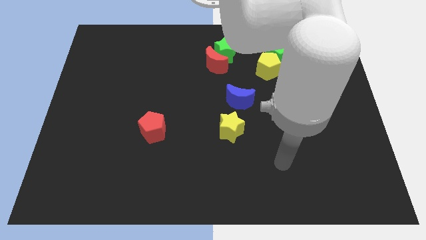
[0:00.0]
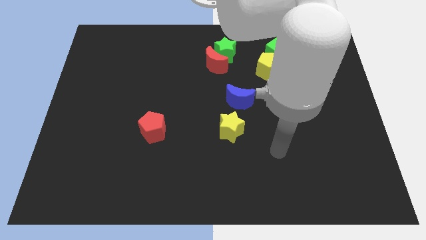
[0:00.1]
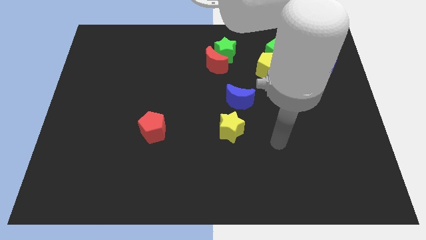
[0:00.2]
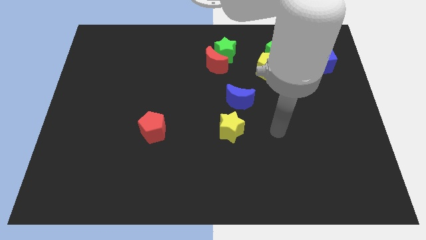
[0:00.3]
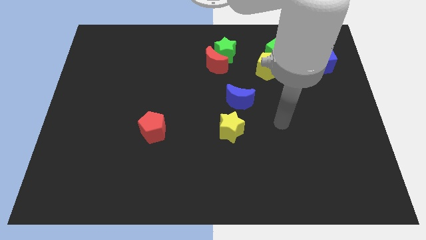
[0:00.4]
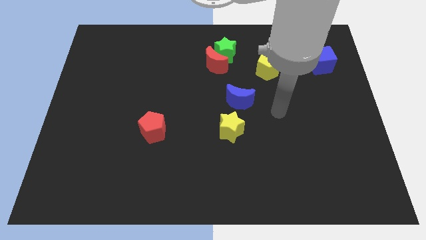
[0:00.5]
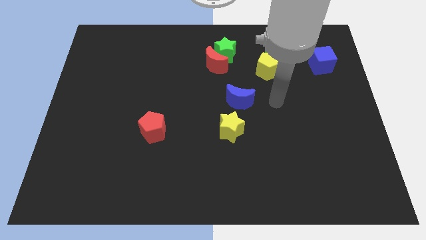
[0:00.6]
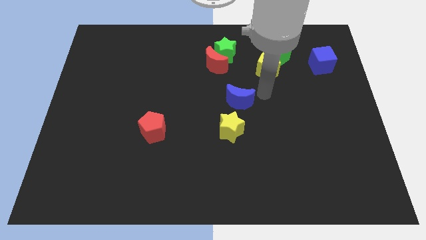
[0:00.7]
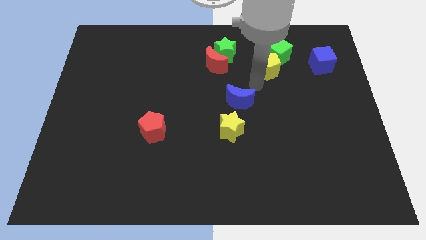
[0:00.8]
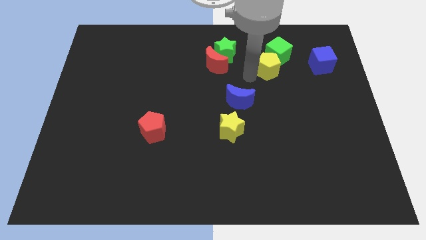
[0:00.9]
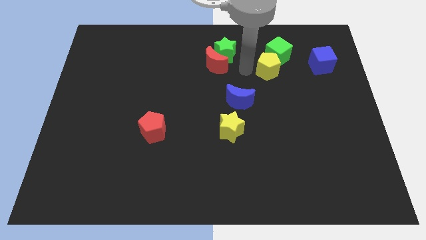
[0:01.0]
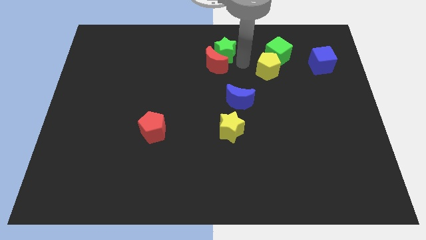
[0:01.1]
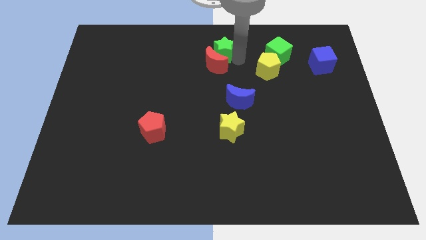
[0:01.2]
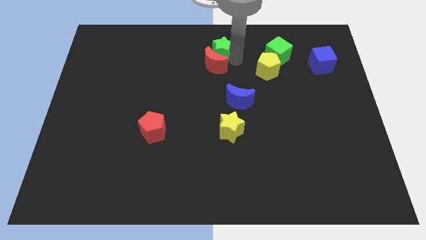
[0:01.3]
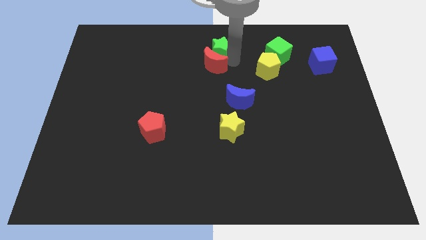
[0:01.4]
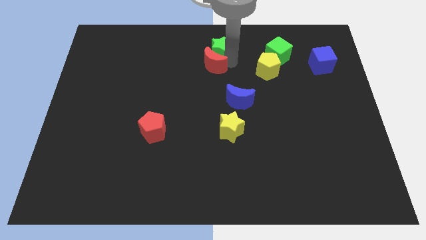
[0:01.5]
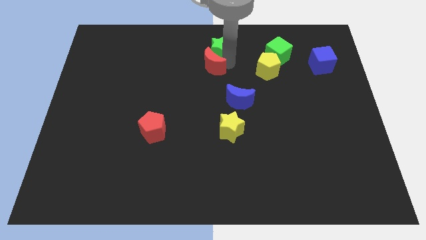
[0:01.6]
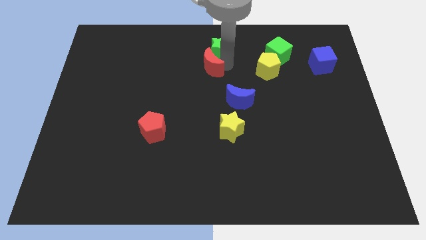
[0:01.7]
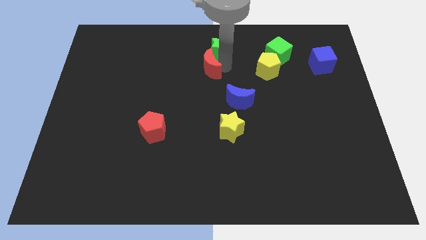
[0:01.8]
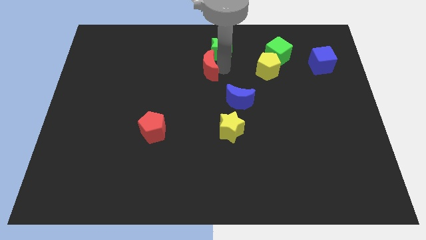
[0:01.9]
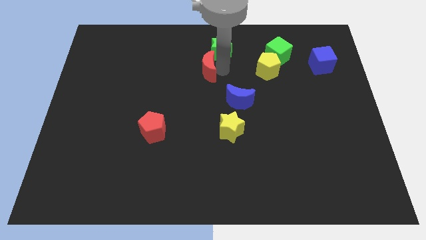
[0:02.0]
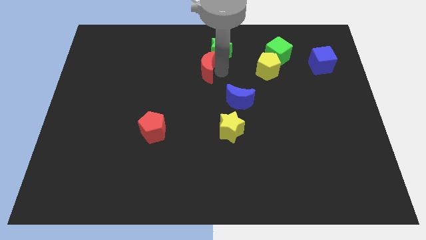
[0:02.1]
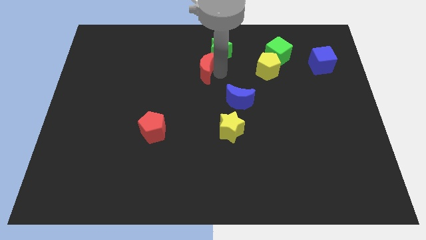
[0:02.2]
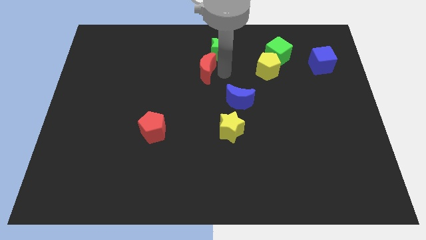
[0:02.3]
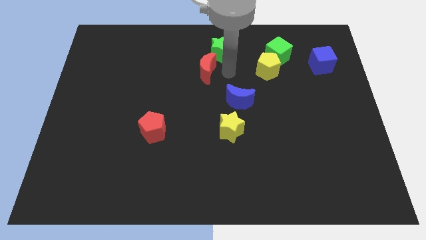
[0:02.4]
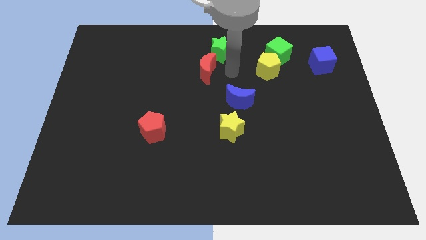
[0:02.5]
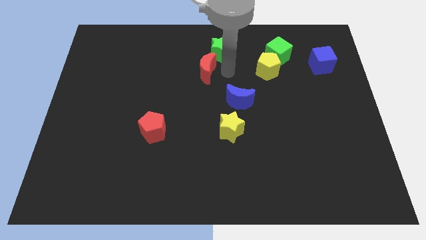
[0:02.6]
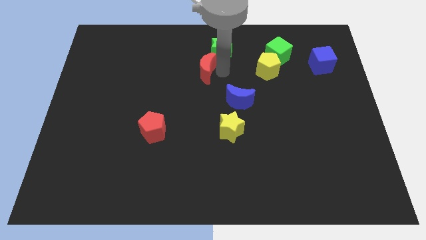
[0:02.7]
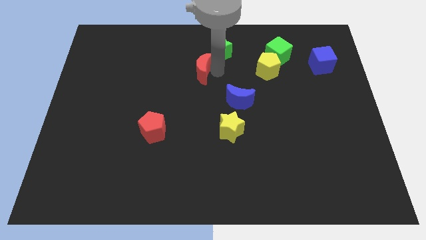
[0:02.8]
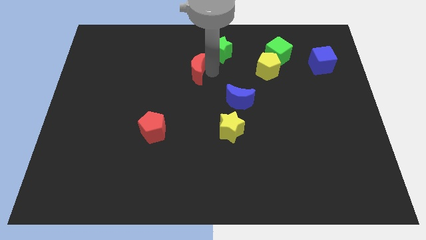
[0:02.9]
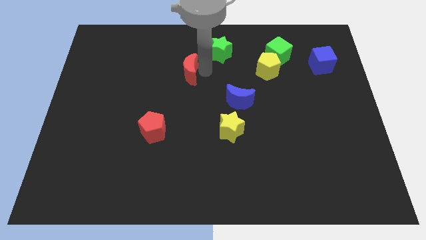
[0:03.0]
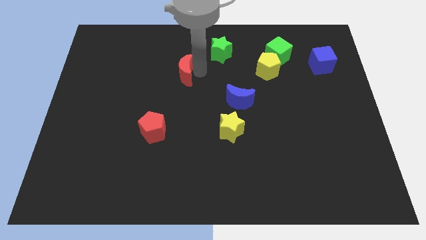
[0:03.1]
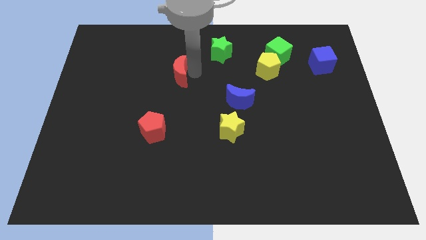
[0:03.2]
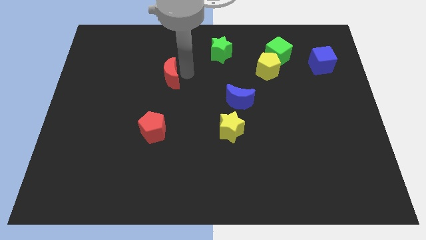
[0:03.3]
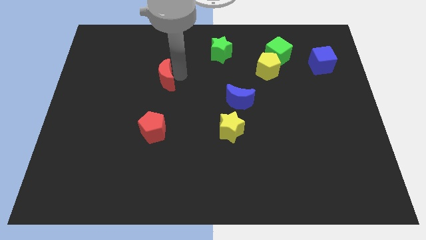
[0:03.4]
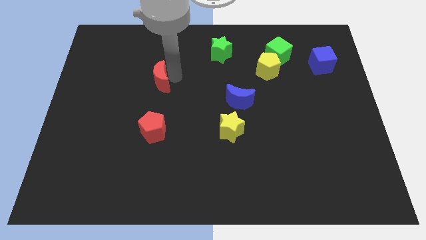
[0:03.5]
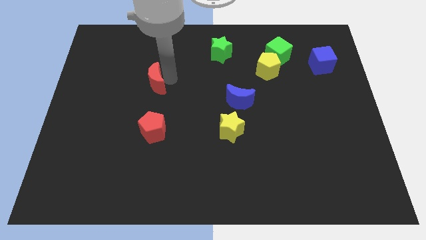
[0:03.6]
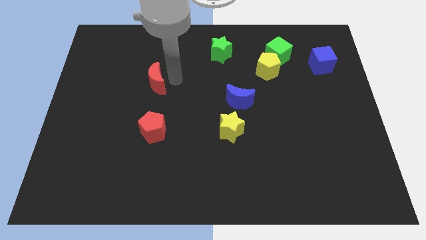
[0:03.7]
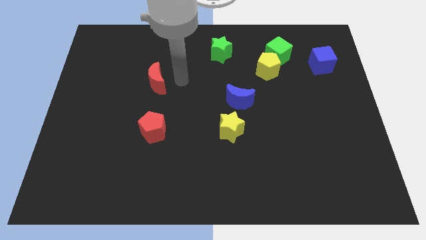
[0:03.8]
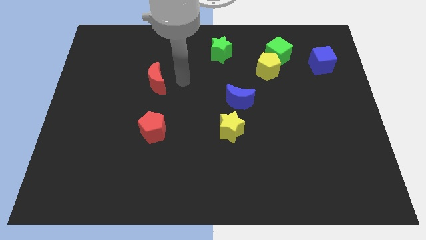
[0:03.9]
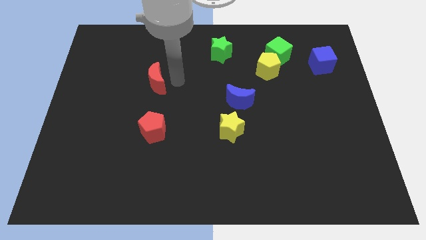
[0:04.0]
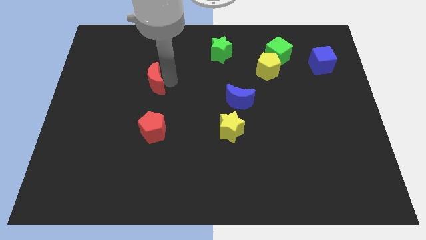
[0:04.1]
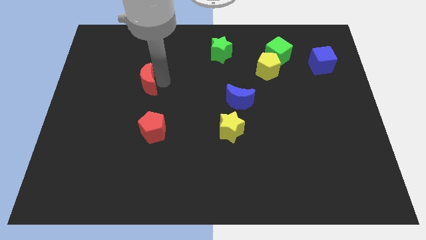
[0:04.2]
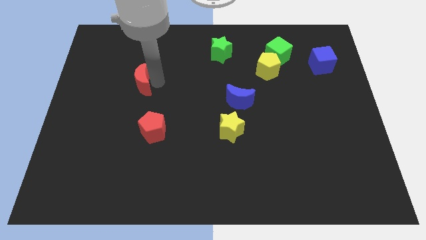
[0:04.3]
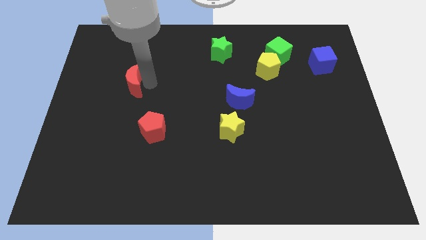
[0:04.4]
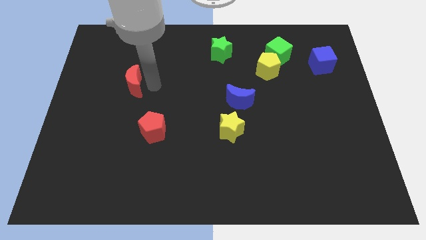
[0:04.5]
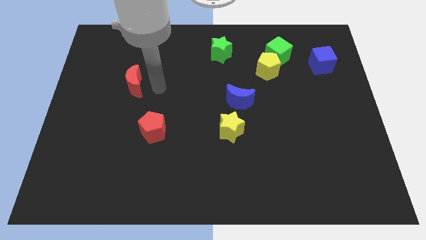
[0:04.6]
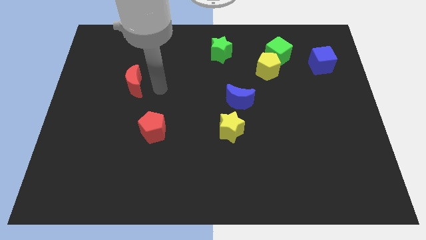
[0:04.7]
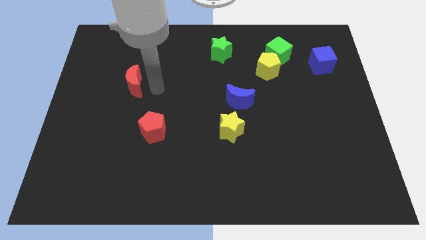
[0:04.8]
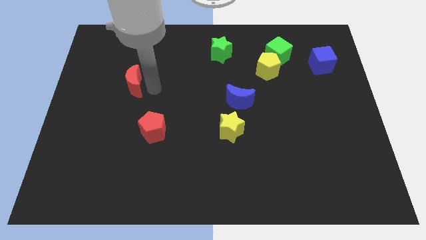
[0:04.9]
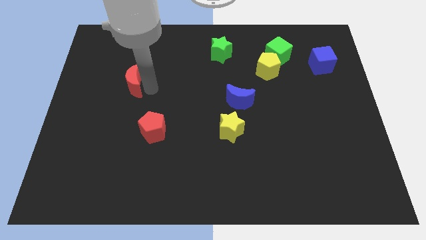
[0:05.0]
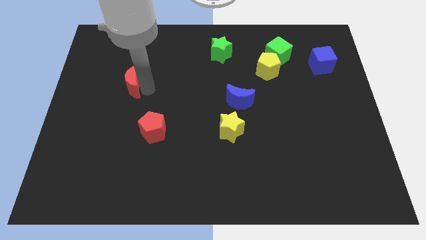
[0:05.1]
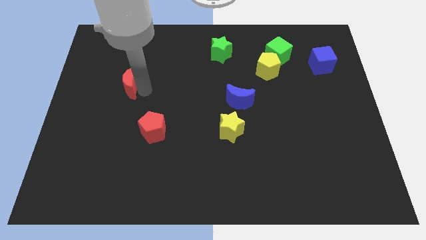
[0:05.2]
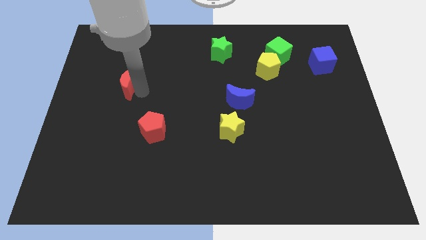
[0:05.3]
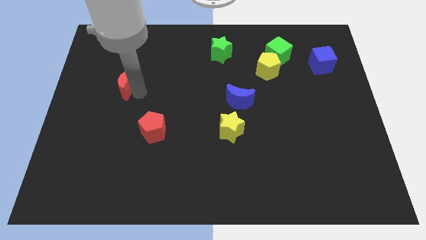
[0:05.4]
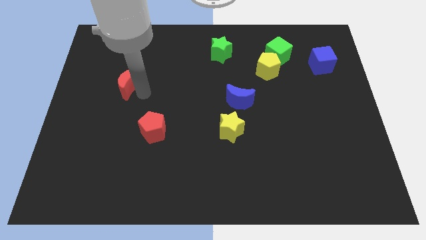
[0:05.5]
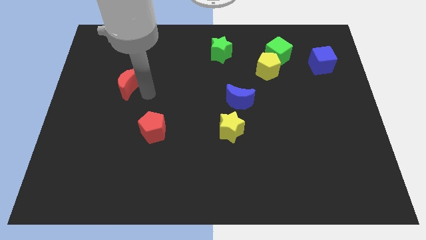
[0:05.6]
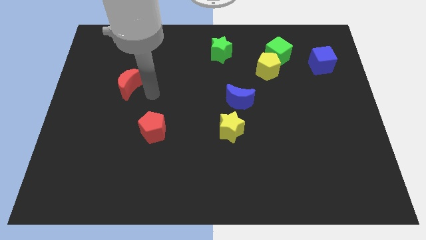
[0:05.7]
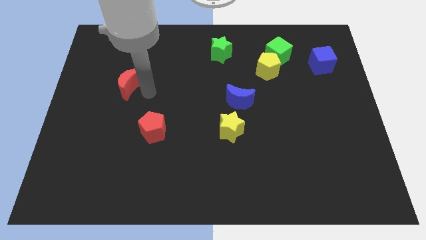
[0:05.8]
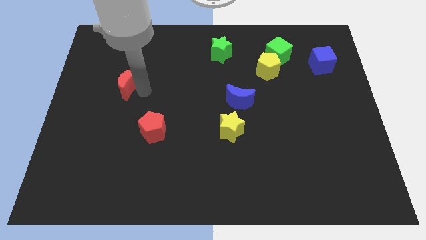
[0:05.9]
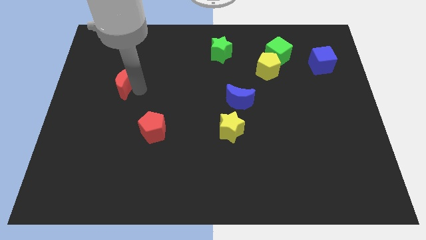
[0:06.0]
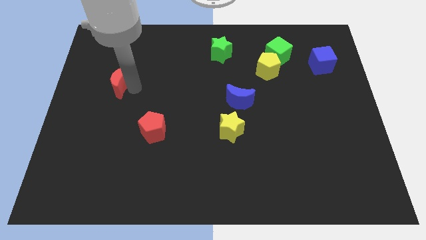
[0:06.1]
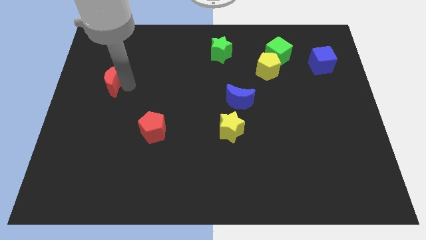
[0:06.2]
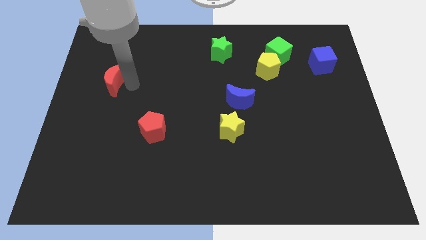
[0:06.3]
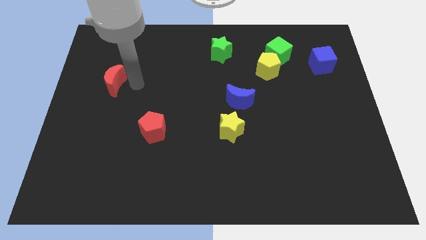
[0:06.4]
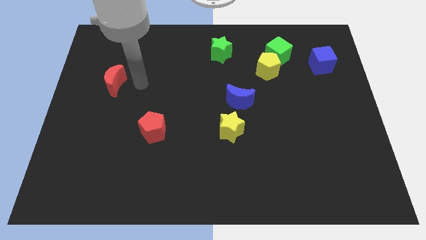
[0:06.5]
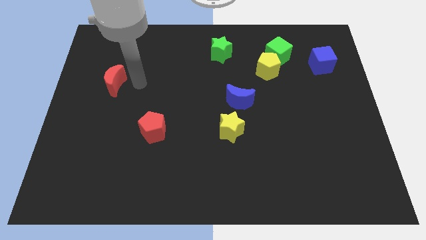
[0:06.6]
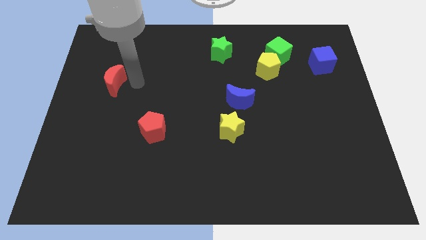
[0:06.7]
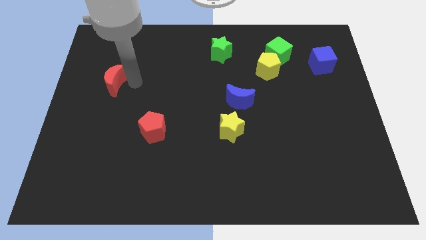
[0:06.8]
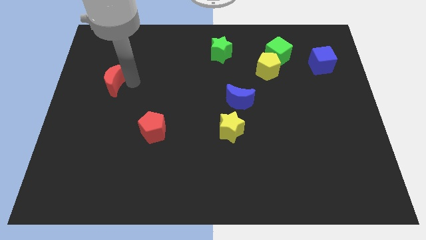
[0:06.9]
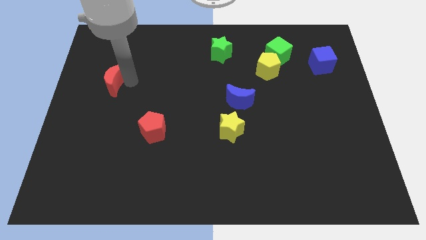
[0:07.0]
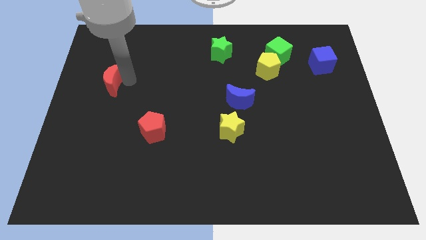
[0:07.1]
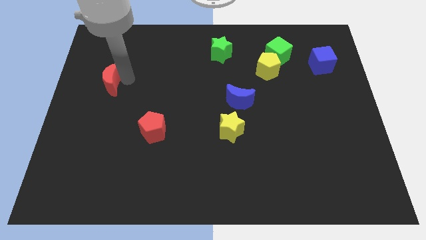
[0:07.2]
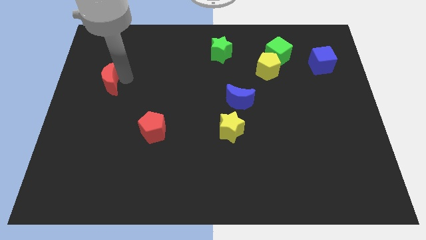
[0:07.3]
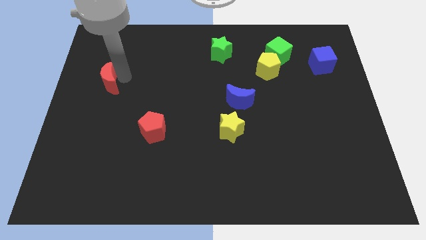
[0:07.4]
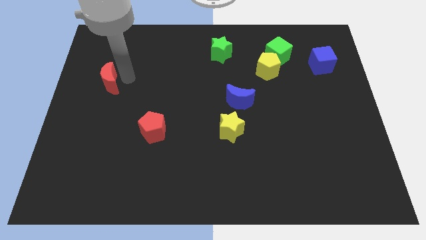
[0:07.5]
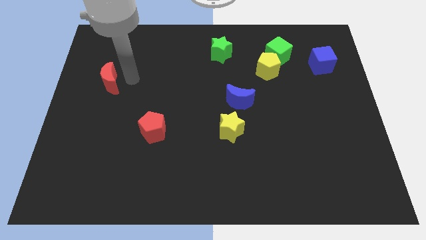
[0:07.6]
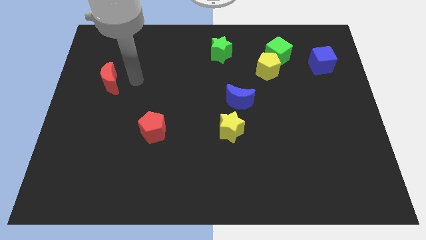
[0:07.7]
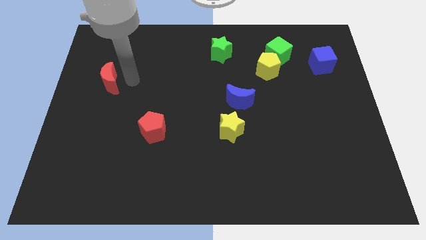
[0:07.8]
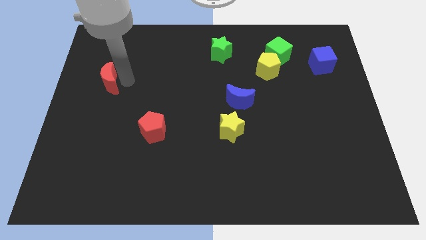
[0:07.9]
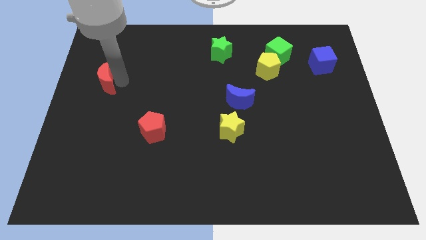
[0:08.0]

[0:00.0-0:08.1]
put the red moon to the left side of the board
